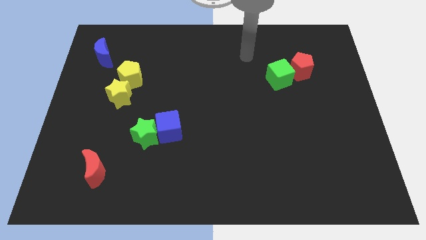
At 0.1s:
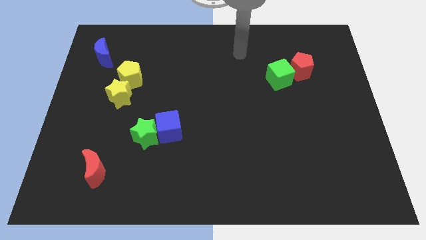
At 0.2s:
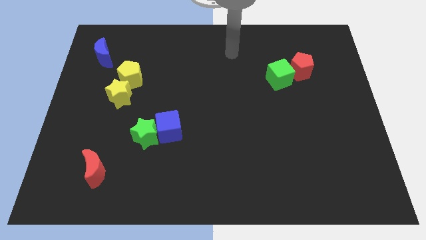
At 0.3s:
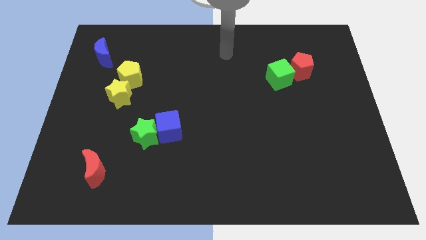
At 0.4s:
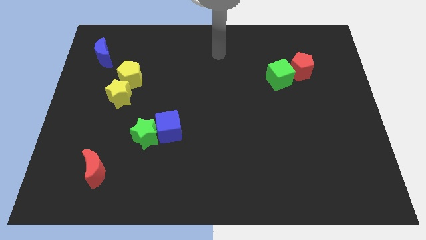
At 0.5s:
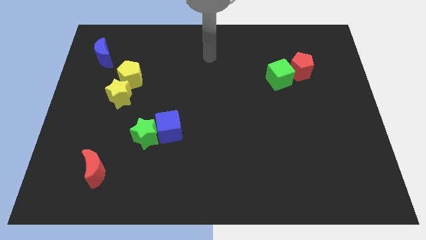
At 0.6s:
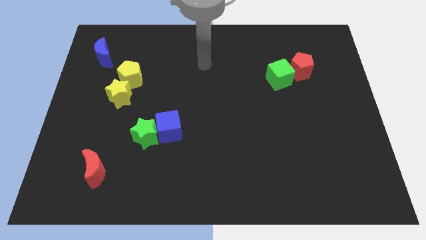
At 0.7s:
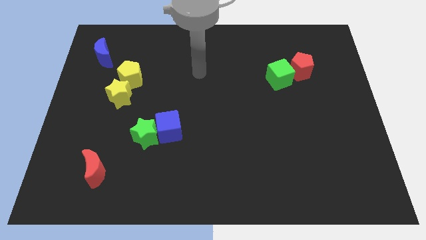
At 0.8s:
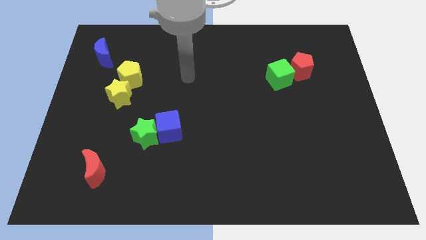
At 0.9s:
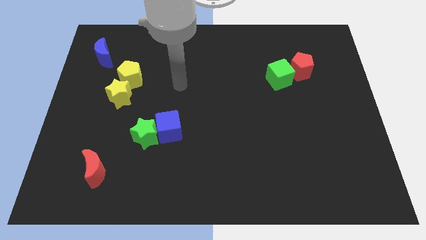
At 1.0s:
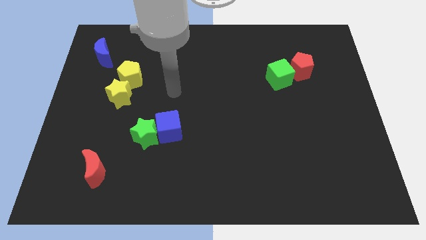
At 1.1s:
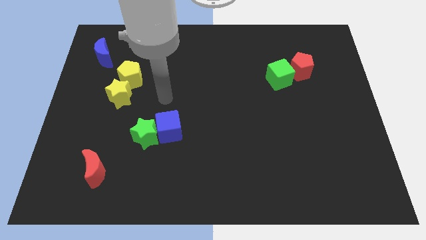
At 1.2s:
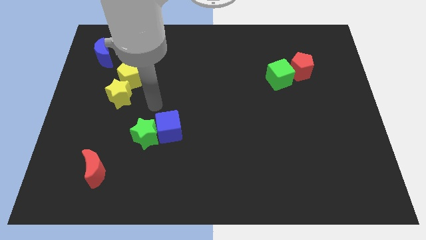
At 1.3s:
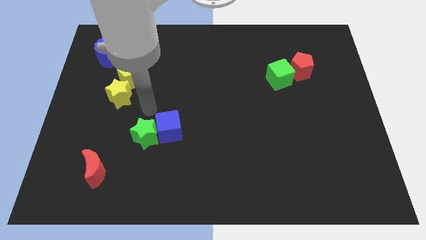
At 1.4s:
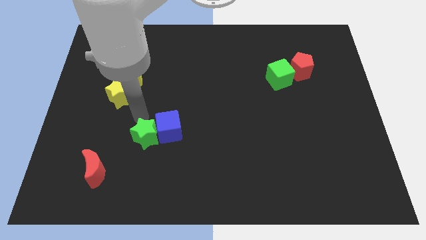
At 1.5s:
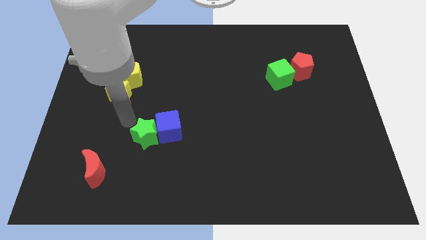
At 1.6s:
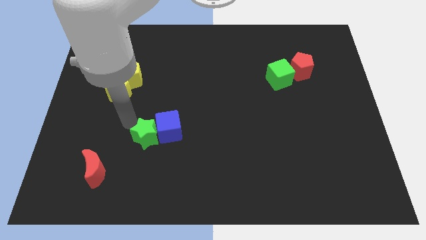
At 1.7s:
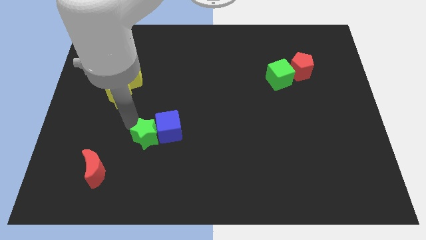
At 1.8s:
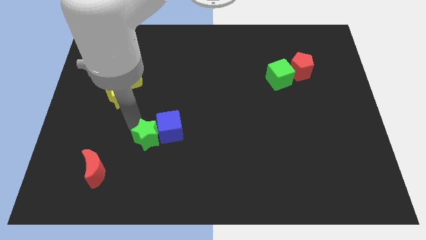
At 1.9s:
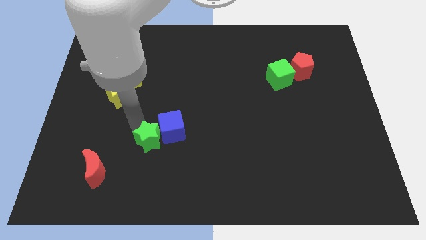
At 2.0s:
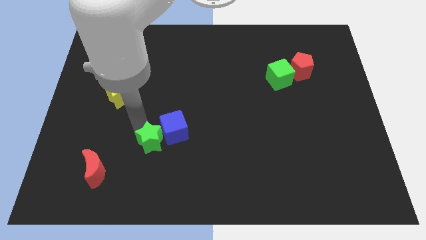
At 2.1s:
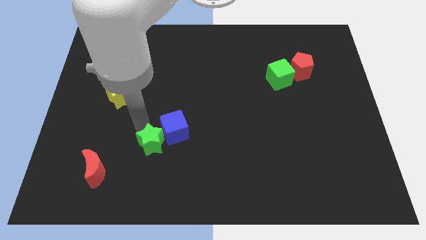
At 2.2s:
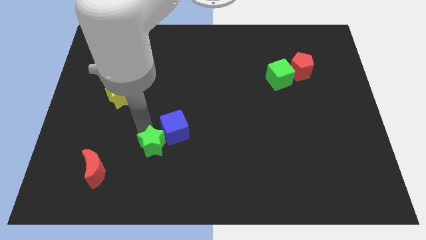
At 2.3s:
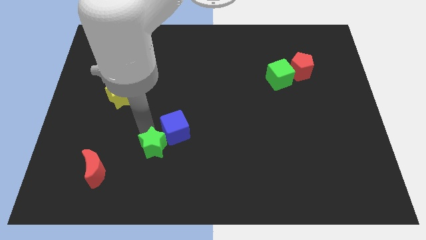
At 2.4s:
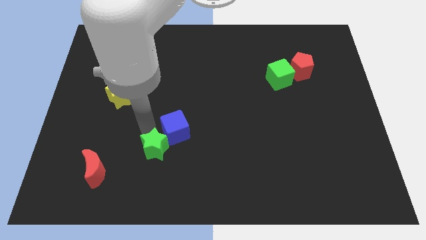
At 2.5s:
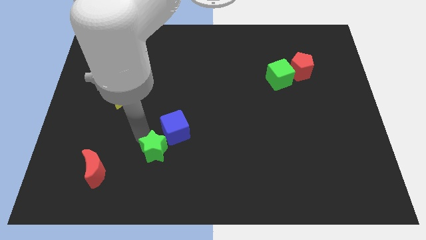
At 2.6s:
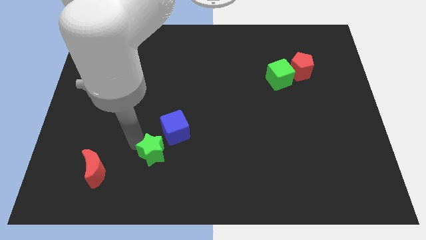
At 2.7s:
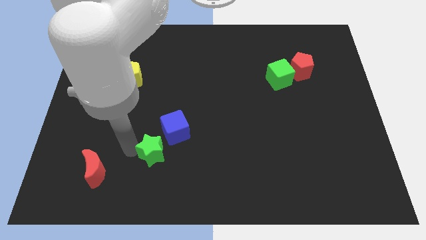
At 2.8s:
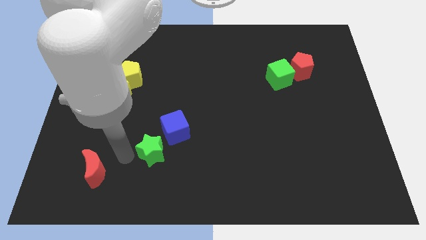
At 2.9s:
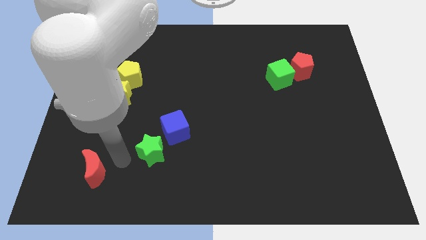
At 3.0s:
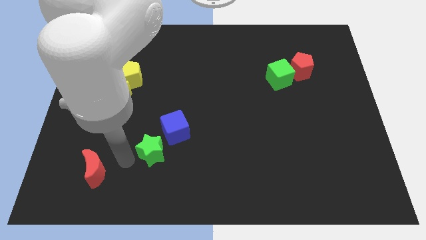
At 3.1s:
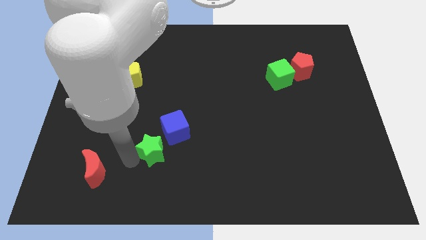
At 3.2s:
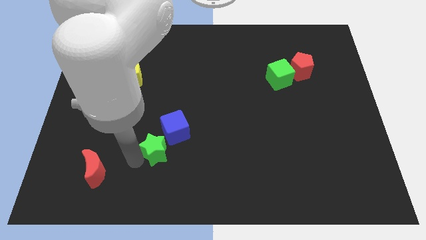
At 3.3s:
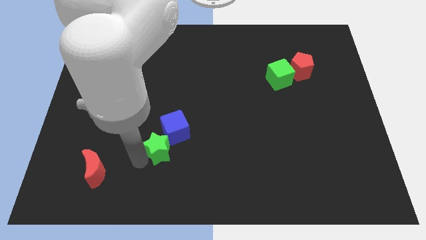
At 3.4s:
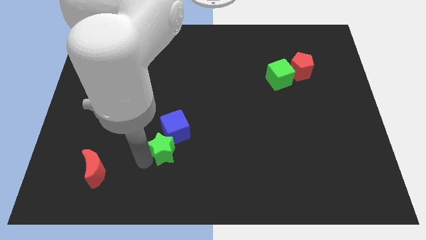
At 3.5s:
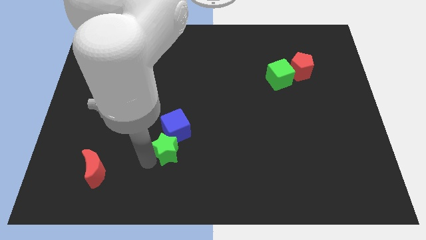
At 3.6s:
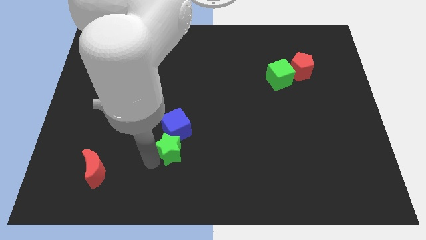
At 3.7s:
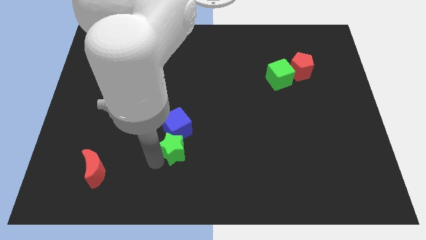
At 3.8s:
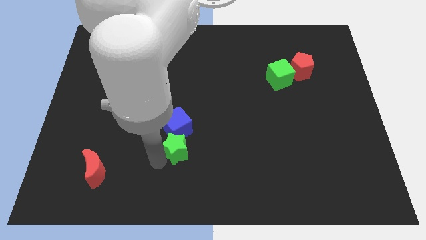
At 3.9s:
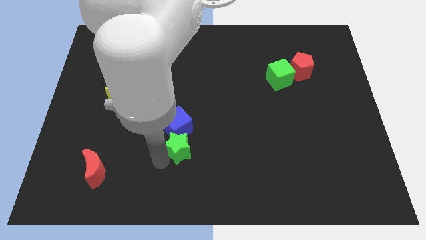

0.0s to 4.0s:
push the green star a bit to the right

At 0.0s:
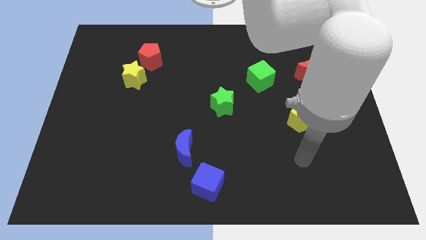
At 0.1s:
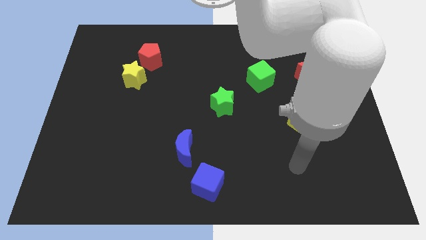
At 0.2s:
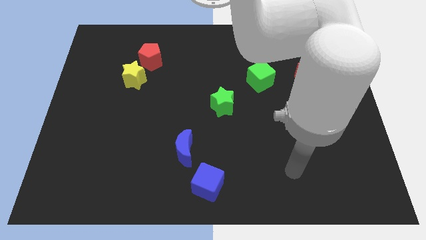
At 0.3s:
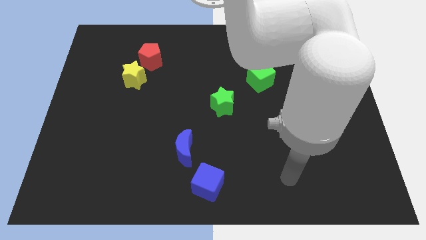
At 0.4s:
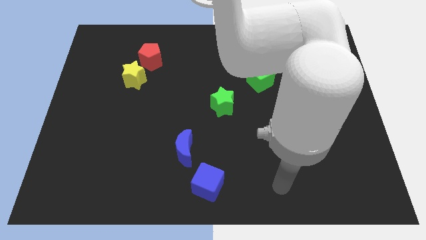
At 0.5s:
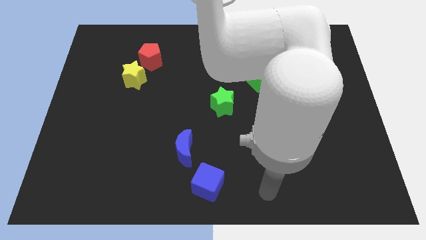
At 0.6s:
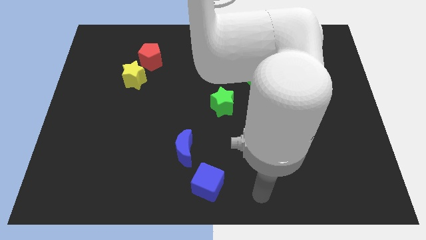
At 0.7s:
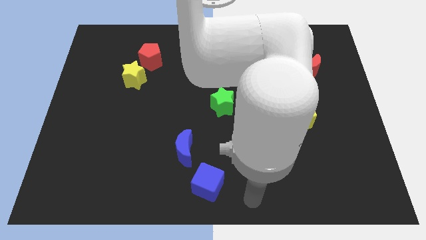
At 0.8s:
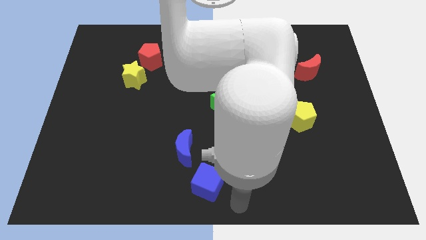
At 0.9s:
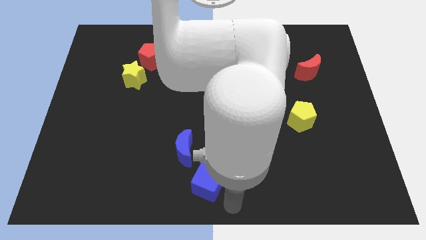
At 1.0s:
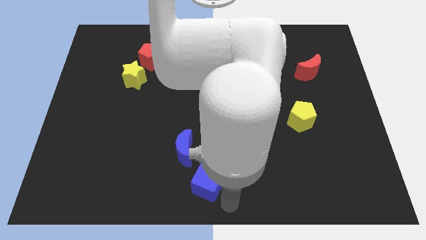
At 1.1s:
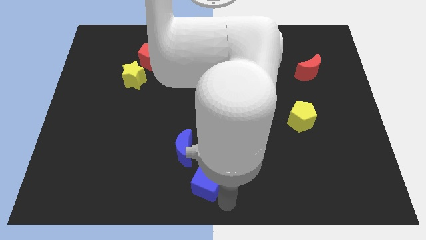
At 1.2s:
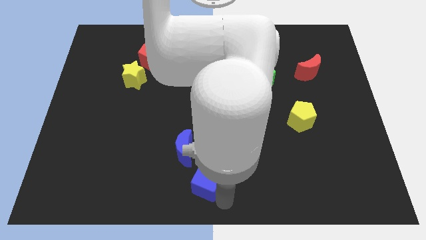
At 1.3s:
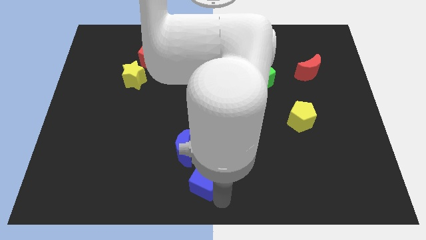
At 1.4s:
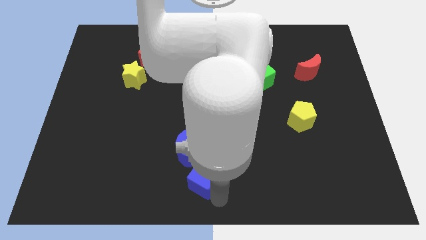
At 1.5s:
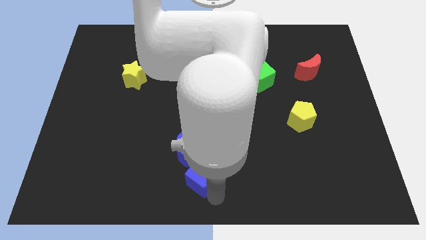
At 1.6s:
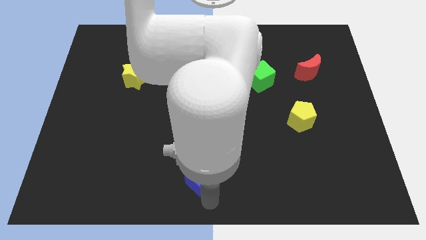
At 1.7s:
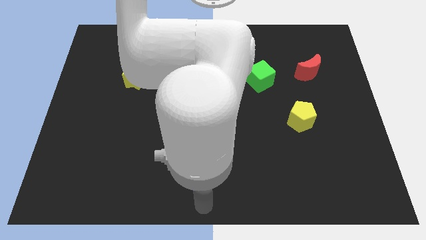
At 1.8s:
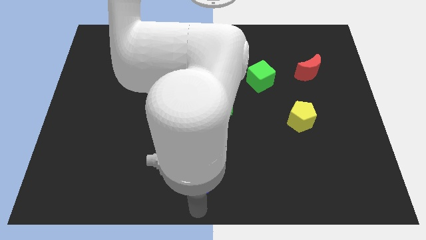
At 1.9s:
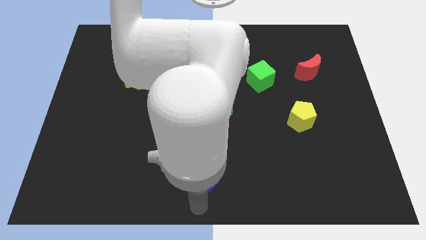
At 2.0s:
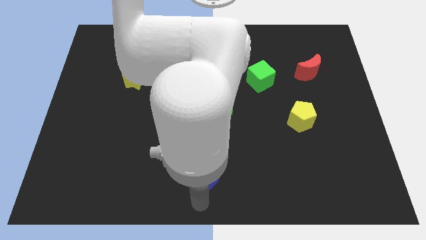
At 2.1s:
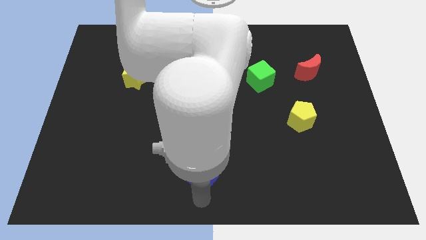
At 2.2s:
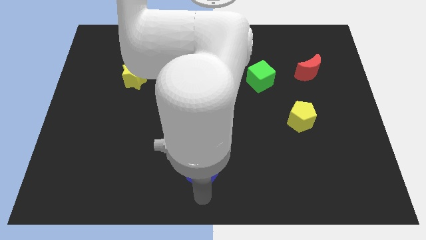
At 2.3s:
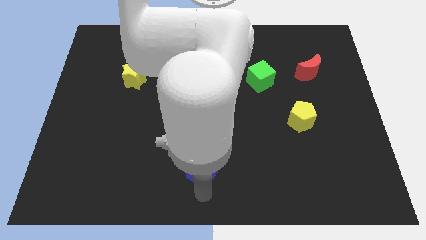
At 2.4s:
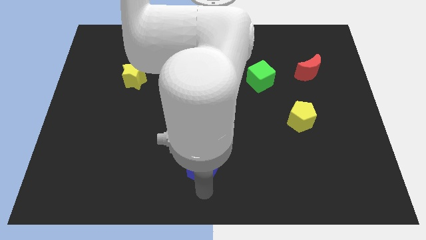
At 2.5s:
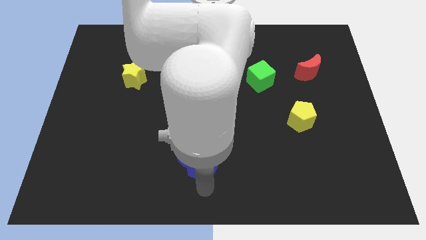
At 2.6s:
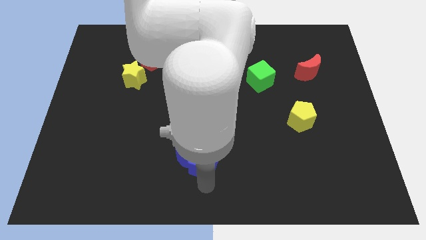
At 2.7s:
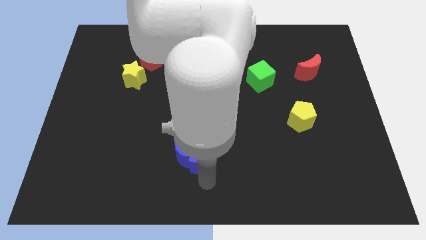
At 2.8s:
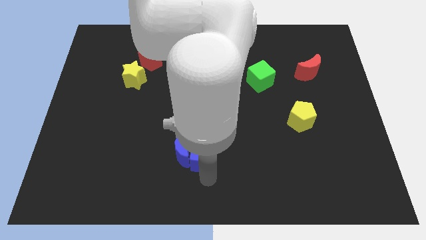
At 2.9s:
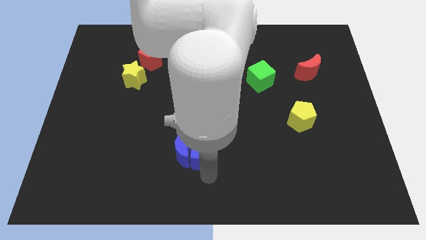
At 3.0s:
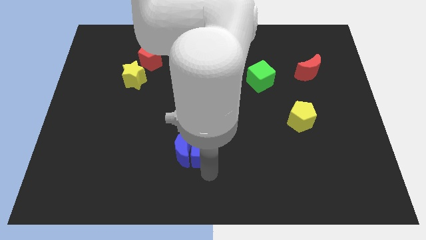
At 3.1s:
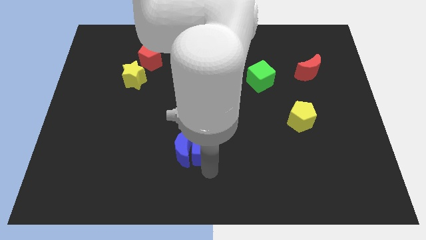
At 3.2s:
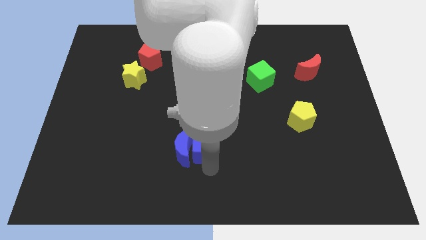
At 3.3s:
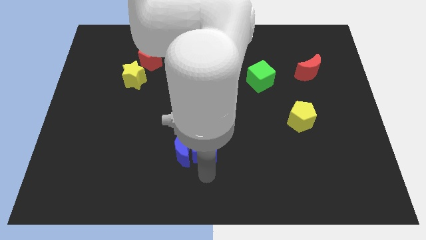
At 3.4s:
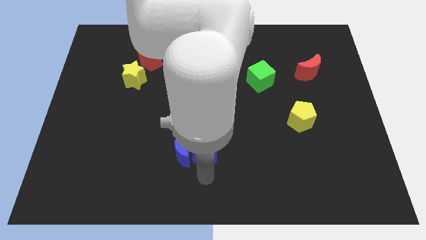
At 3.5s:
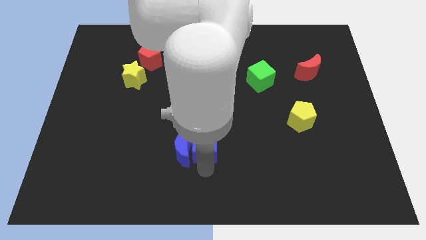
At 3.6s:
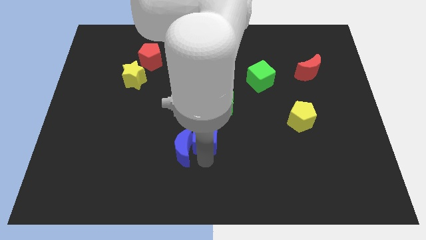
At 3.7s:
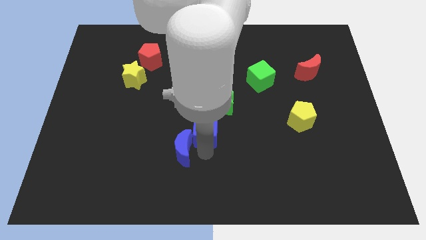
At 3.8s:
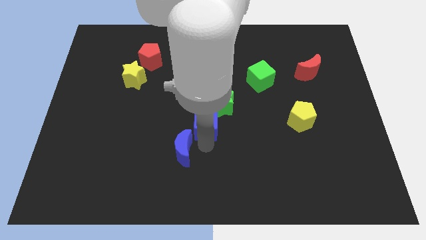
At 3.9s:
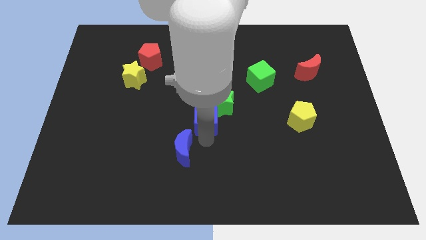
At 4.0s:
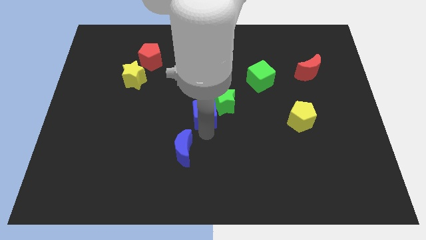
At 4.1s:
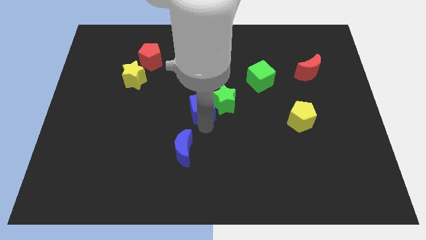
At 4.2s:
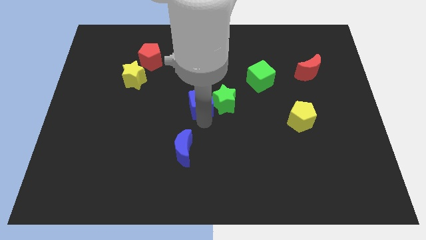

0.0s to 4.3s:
push the blue cube up

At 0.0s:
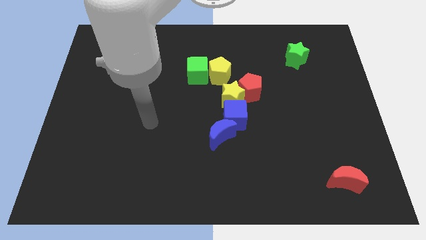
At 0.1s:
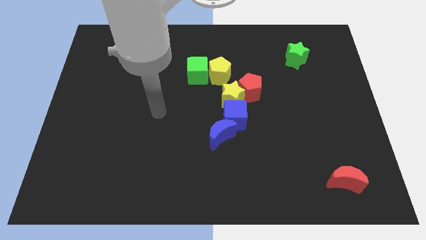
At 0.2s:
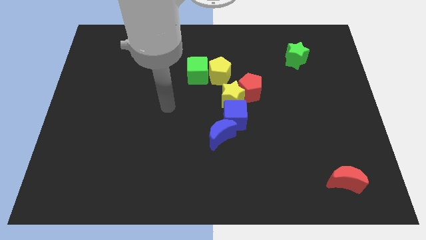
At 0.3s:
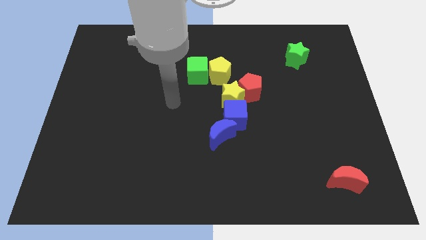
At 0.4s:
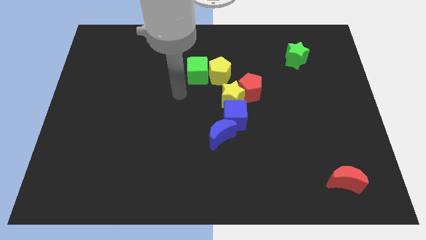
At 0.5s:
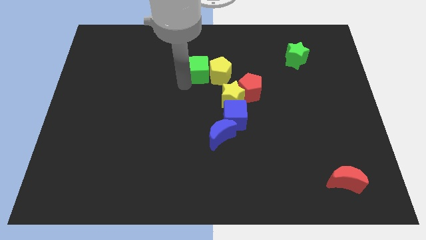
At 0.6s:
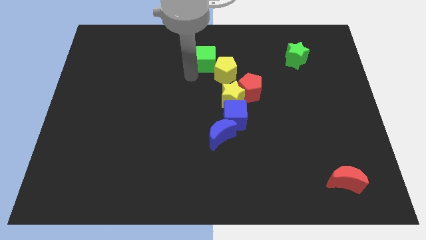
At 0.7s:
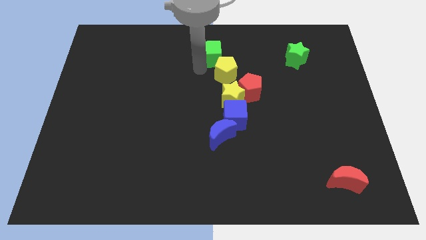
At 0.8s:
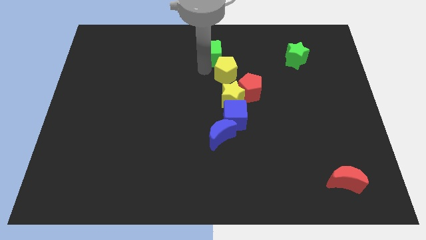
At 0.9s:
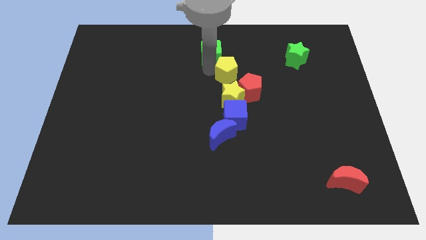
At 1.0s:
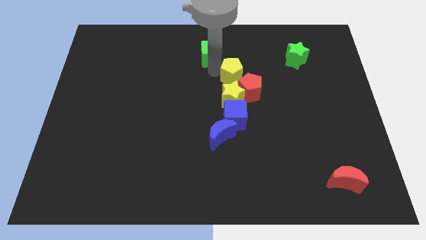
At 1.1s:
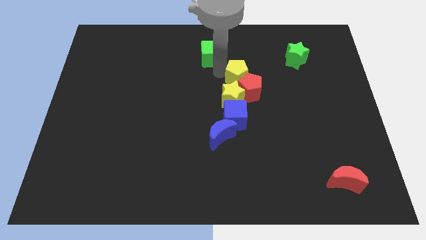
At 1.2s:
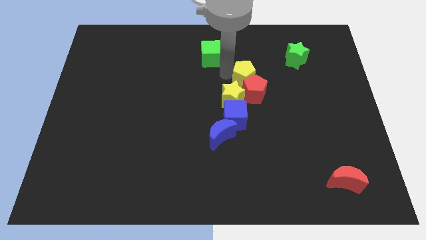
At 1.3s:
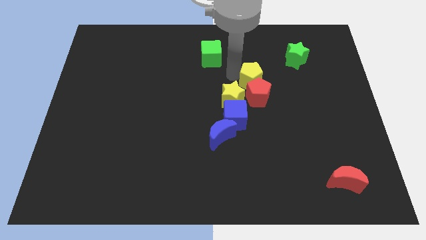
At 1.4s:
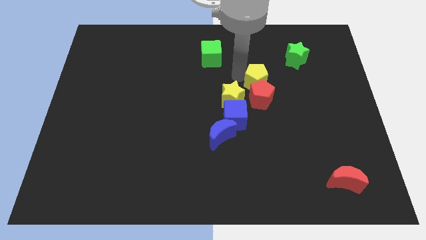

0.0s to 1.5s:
move the yellow pentagon a bit downwards and to the right
